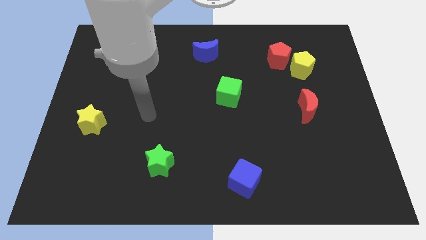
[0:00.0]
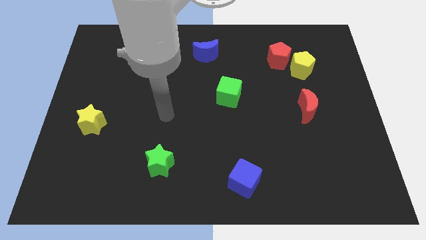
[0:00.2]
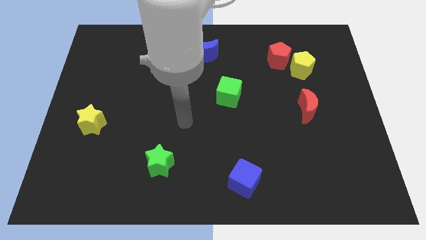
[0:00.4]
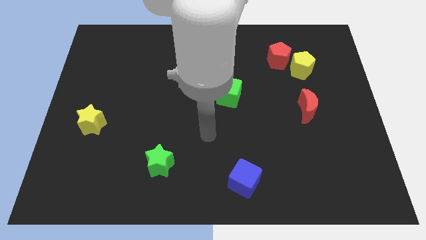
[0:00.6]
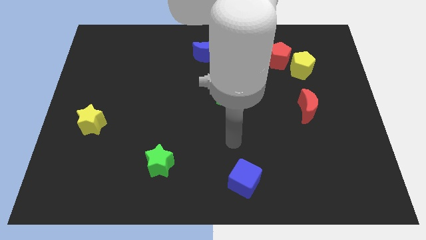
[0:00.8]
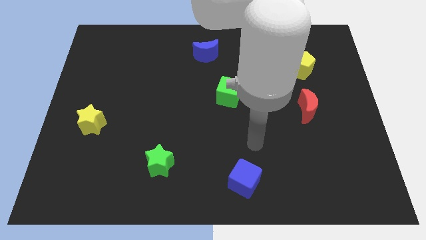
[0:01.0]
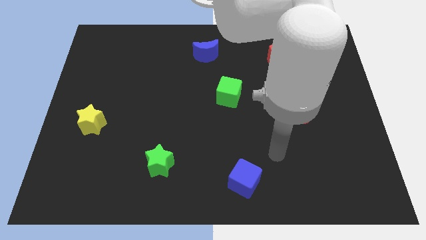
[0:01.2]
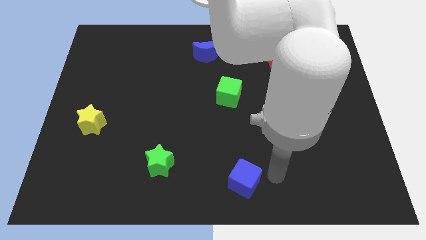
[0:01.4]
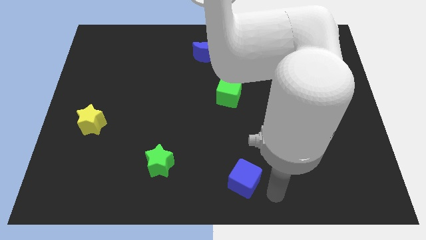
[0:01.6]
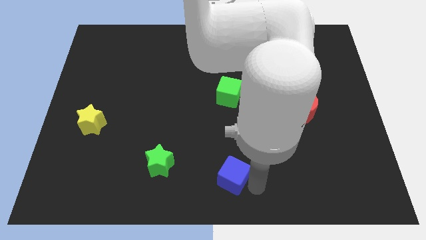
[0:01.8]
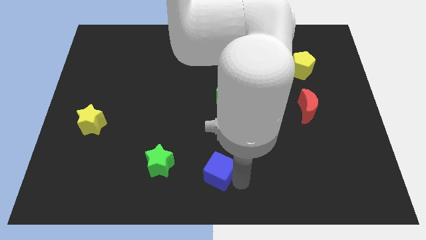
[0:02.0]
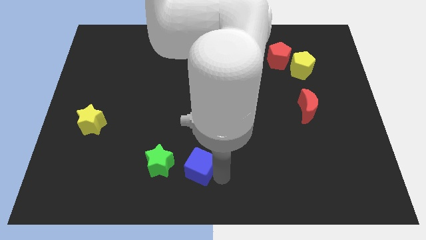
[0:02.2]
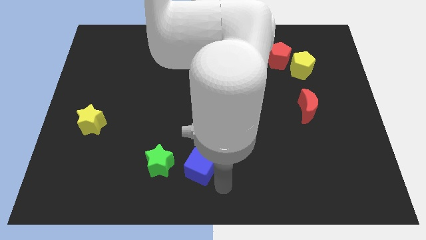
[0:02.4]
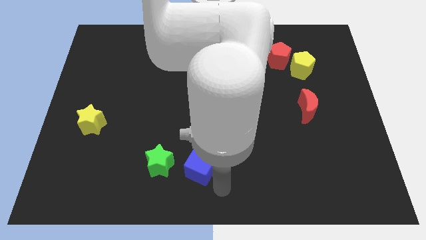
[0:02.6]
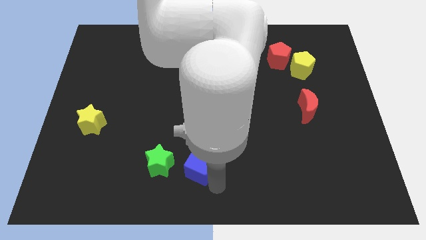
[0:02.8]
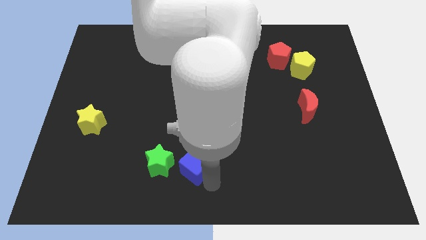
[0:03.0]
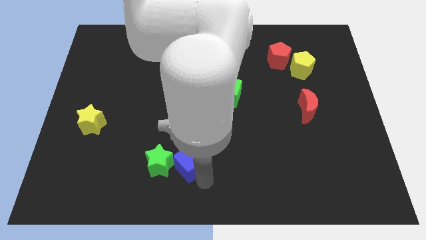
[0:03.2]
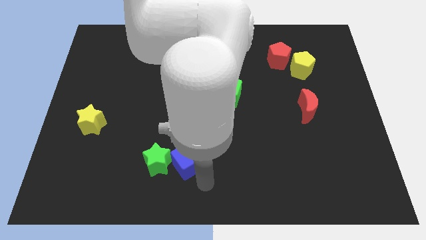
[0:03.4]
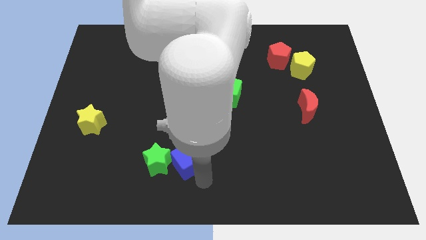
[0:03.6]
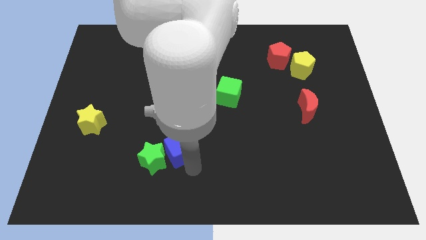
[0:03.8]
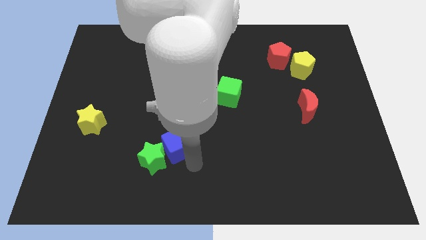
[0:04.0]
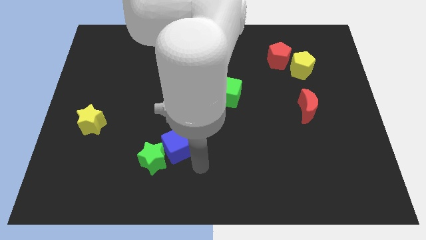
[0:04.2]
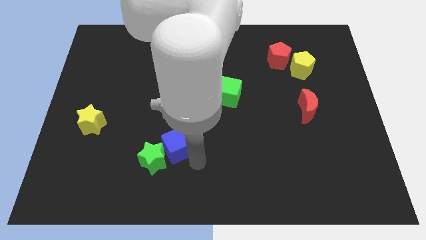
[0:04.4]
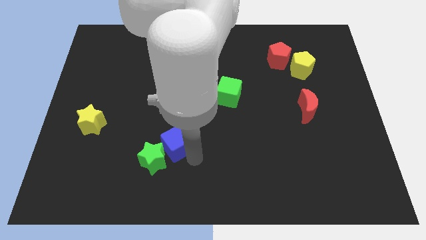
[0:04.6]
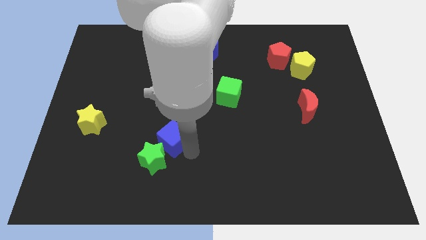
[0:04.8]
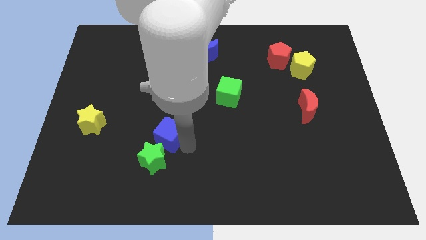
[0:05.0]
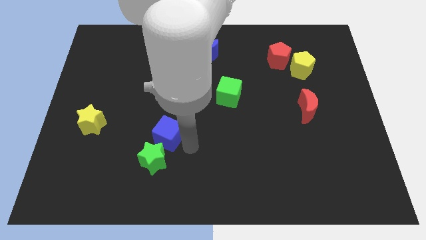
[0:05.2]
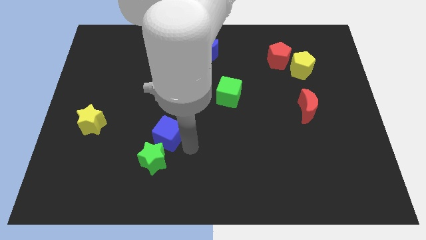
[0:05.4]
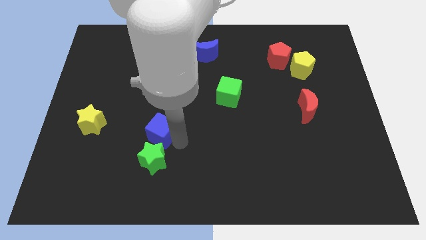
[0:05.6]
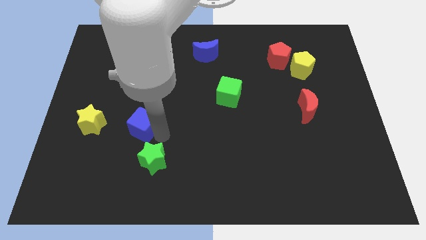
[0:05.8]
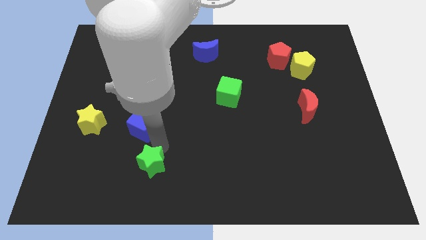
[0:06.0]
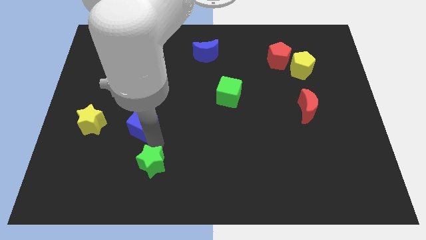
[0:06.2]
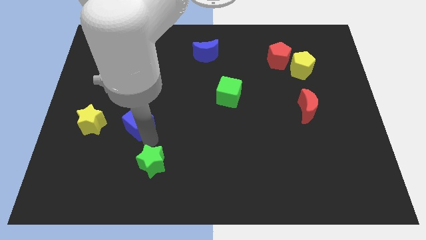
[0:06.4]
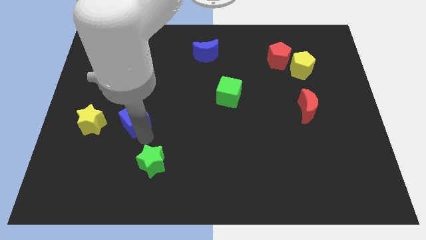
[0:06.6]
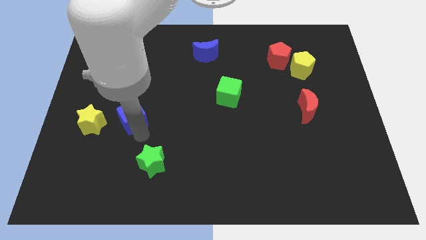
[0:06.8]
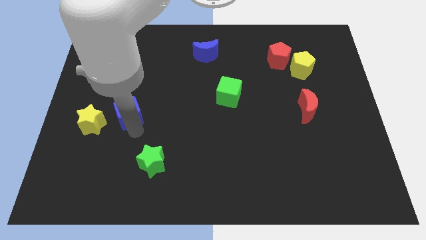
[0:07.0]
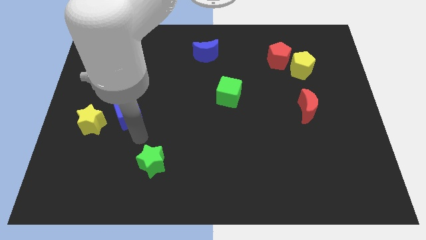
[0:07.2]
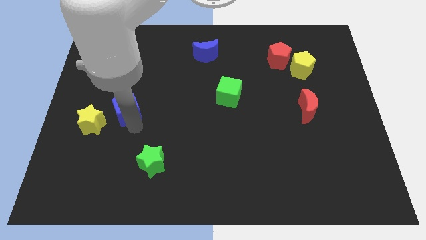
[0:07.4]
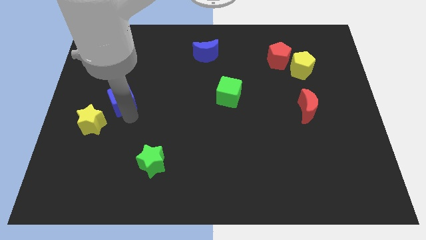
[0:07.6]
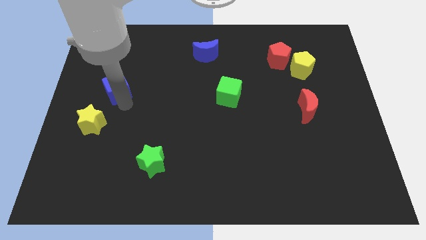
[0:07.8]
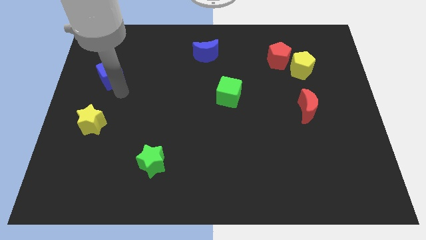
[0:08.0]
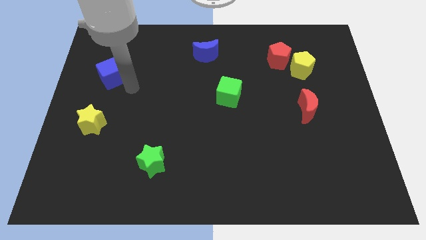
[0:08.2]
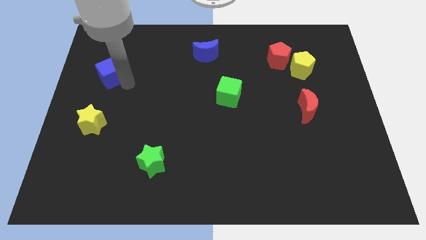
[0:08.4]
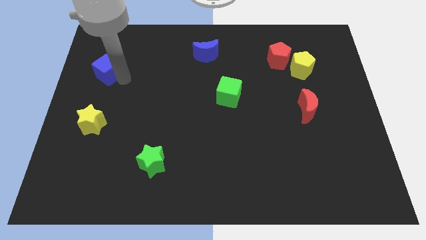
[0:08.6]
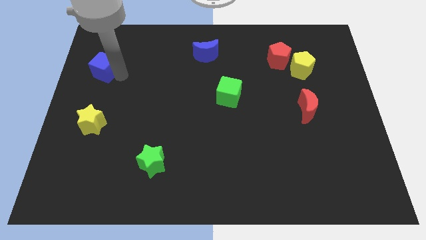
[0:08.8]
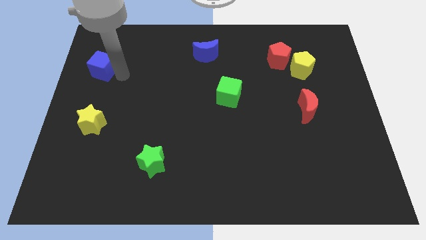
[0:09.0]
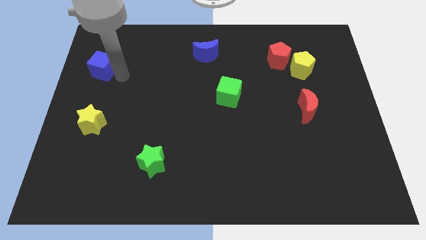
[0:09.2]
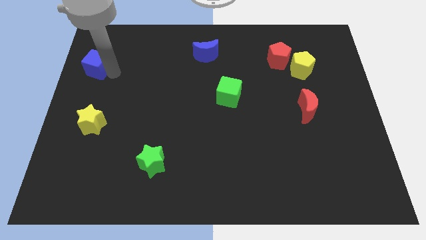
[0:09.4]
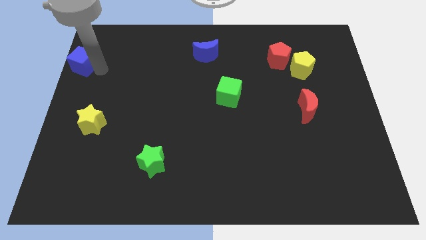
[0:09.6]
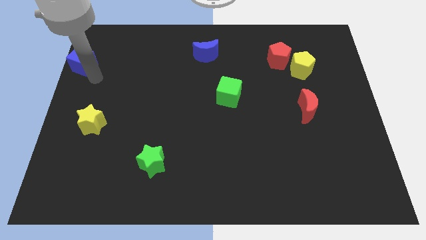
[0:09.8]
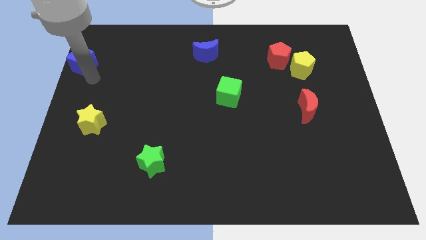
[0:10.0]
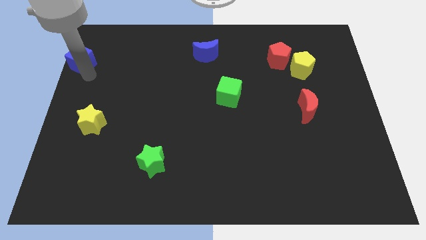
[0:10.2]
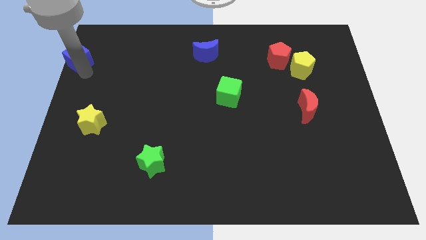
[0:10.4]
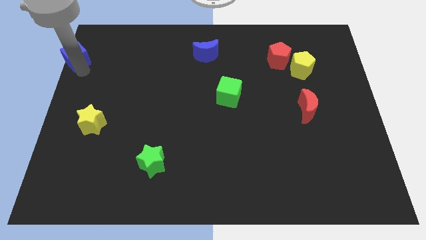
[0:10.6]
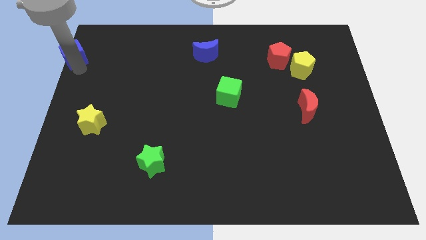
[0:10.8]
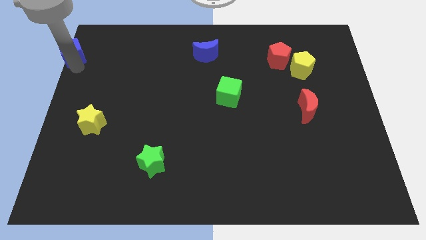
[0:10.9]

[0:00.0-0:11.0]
move the blue cube to the upper left corner

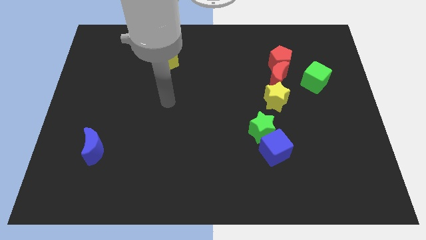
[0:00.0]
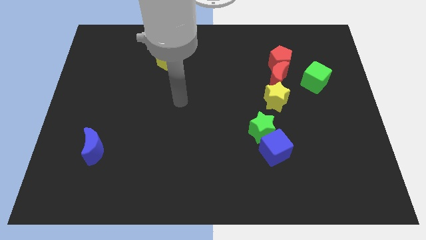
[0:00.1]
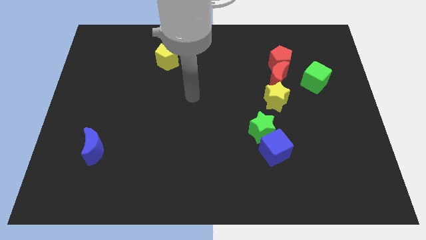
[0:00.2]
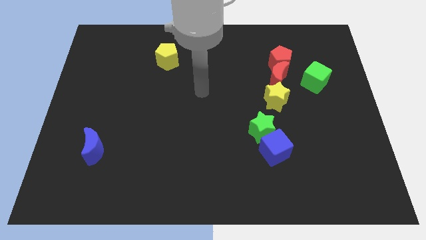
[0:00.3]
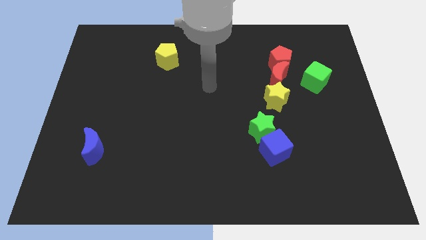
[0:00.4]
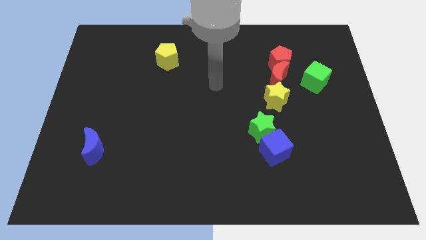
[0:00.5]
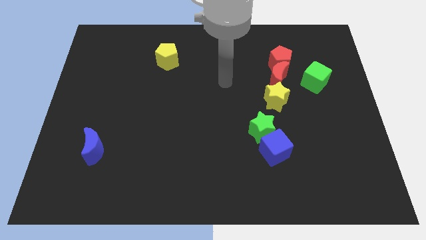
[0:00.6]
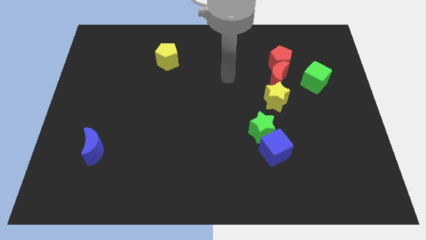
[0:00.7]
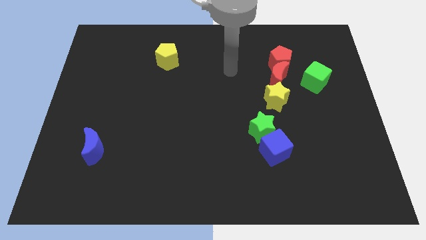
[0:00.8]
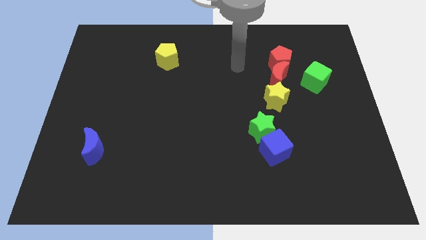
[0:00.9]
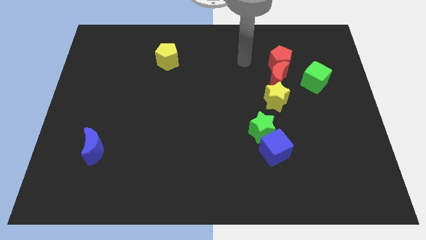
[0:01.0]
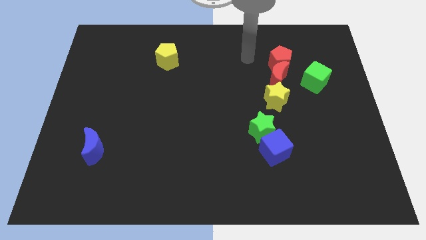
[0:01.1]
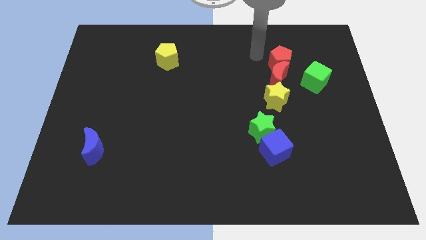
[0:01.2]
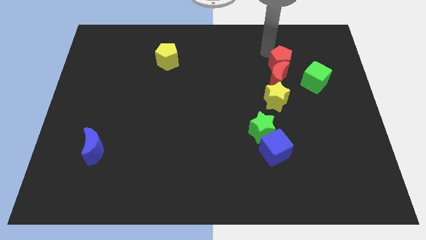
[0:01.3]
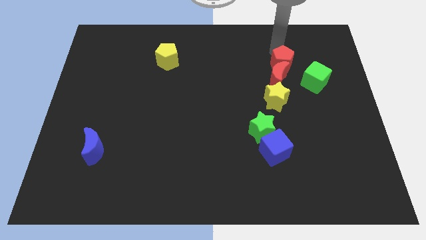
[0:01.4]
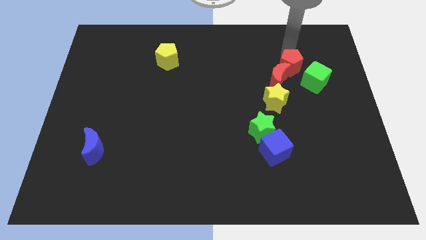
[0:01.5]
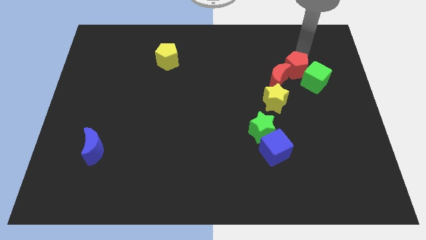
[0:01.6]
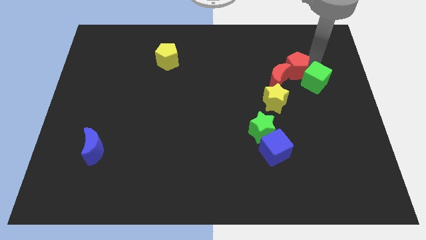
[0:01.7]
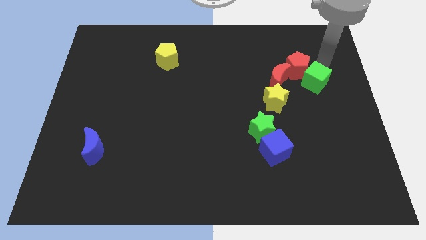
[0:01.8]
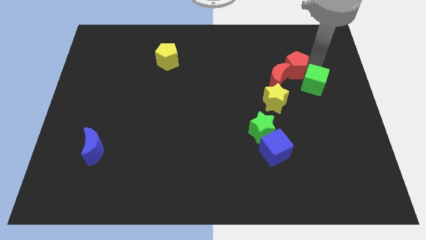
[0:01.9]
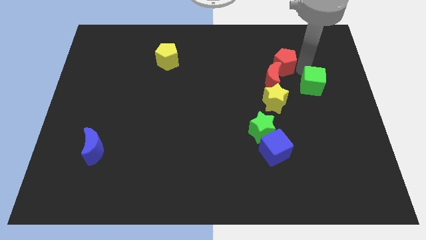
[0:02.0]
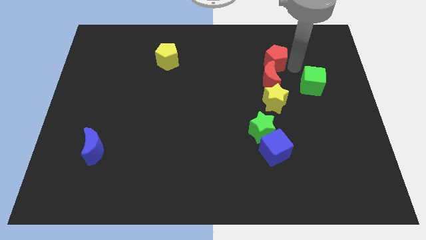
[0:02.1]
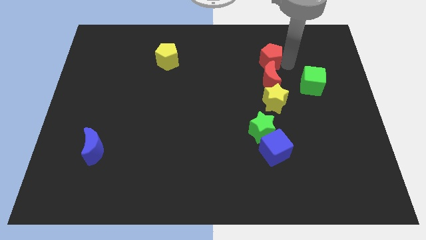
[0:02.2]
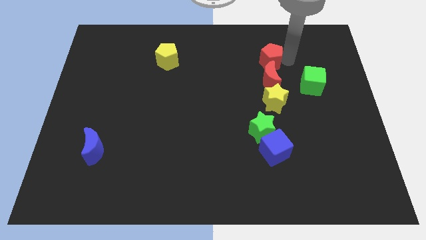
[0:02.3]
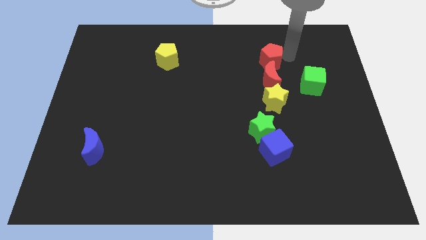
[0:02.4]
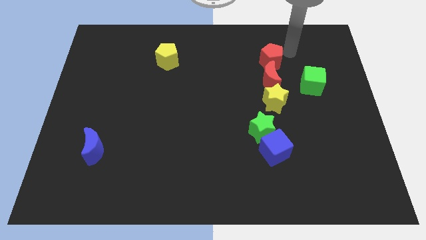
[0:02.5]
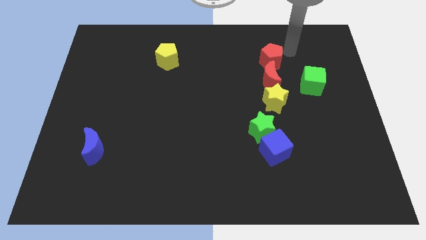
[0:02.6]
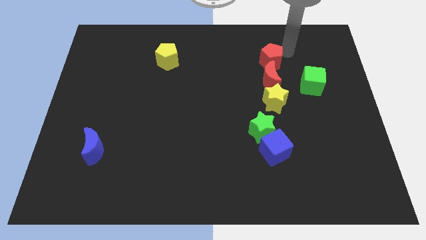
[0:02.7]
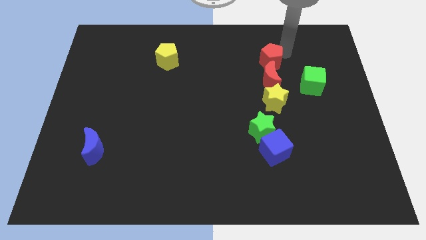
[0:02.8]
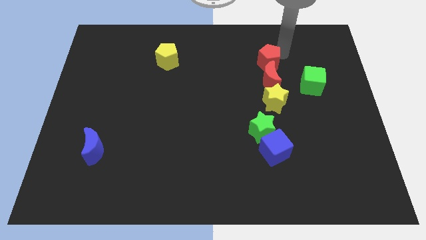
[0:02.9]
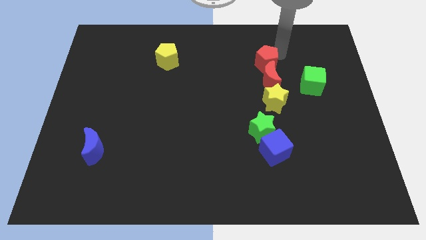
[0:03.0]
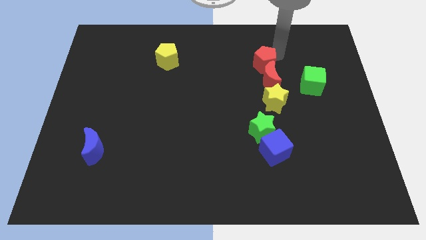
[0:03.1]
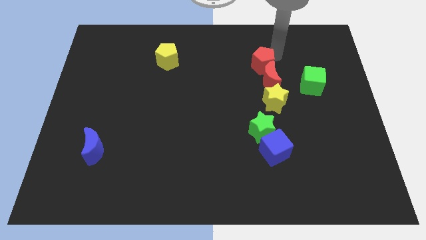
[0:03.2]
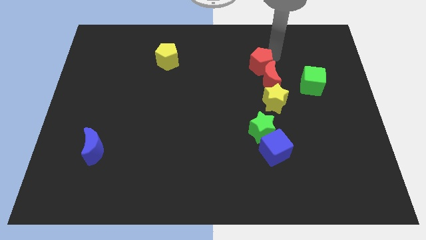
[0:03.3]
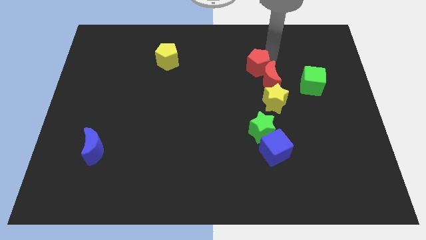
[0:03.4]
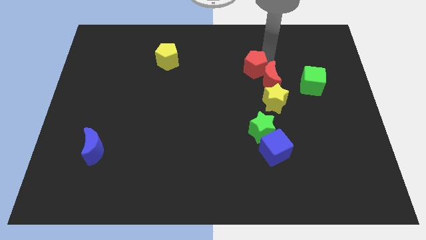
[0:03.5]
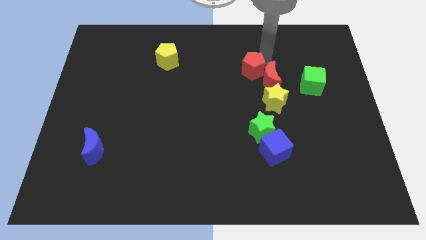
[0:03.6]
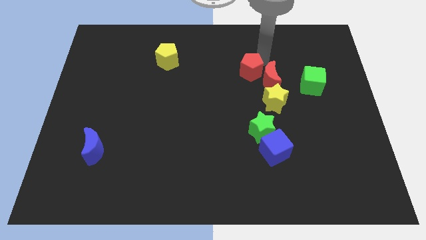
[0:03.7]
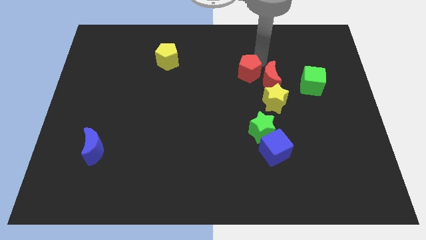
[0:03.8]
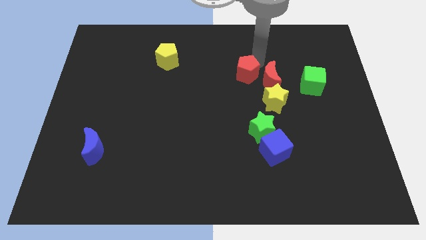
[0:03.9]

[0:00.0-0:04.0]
put the red pentagon to the center
